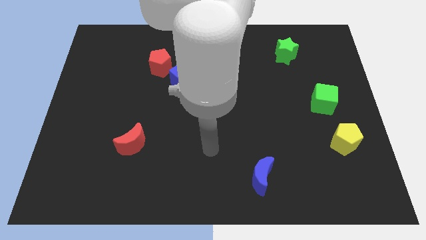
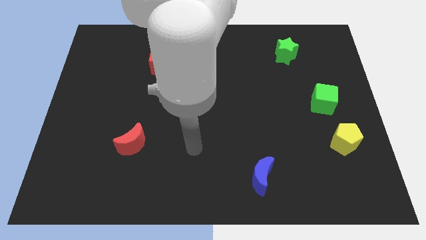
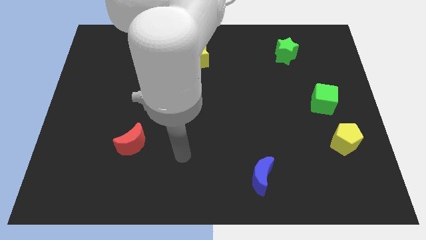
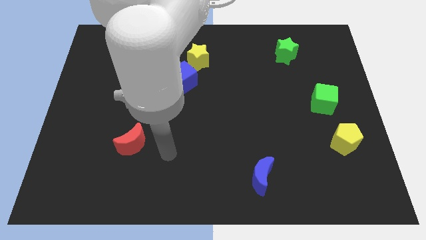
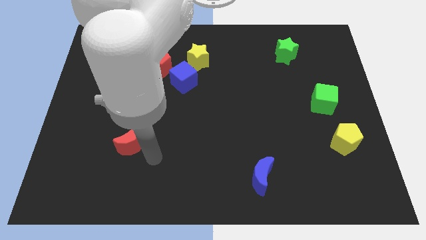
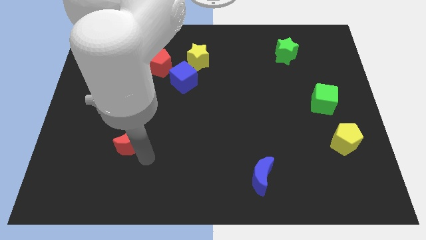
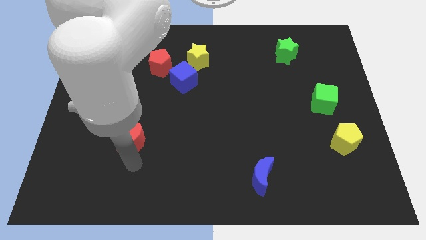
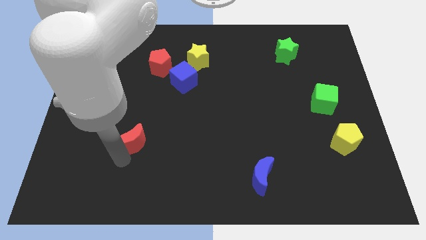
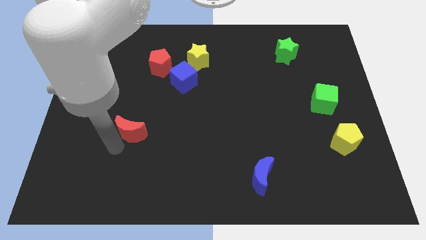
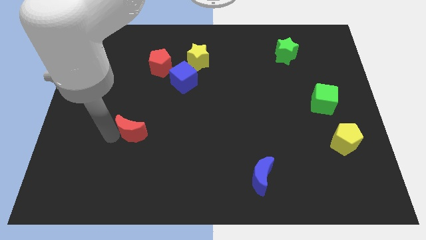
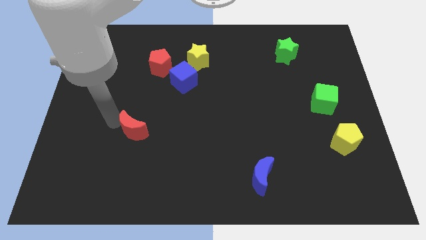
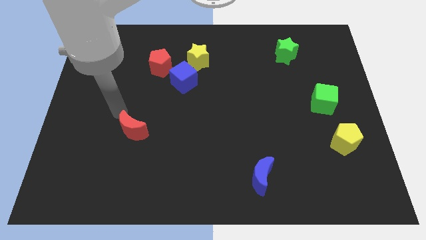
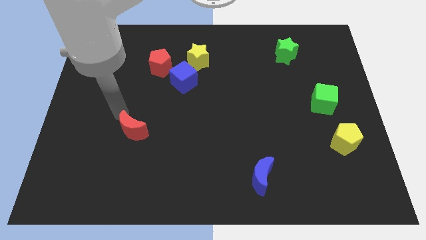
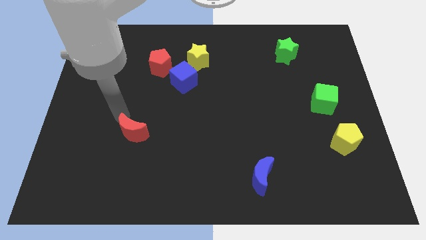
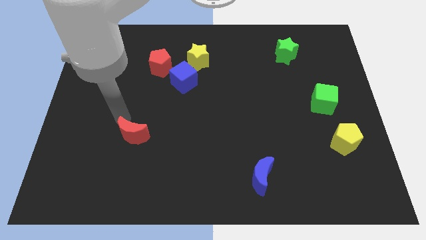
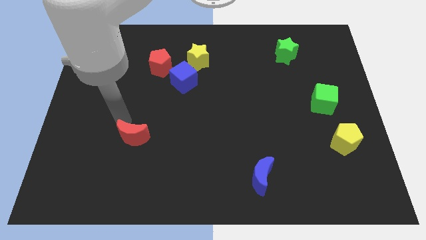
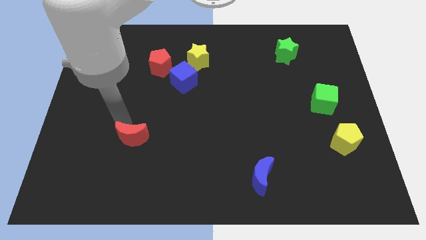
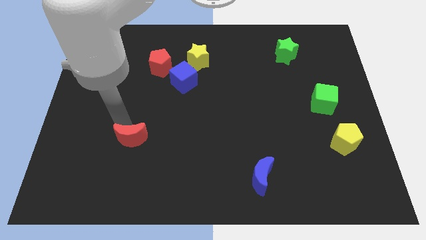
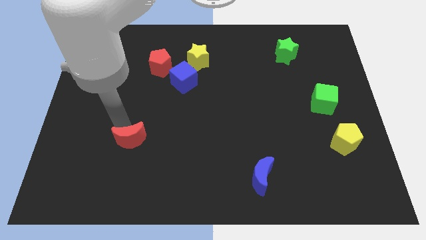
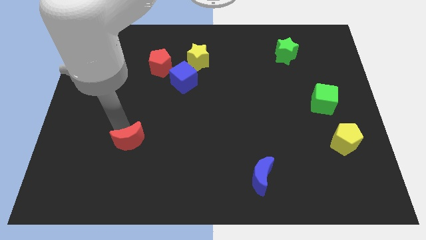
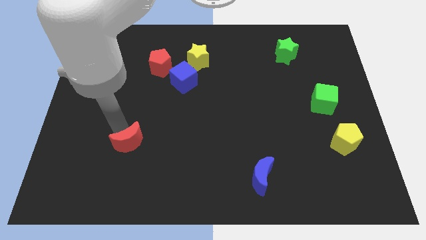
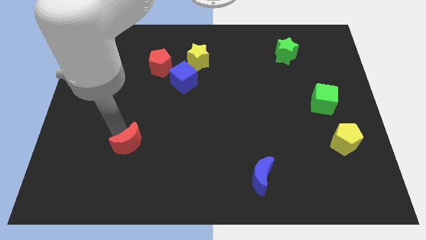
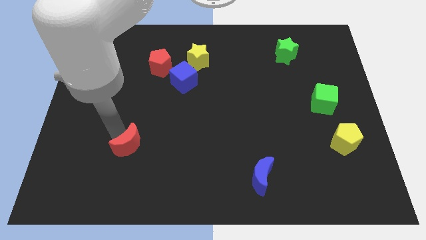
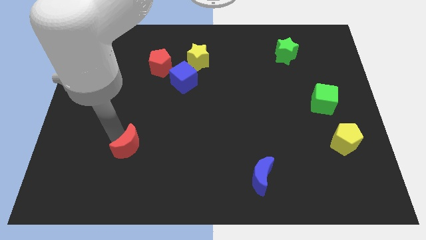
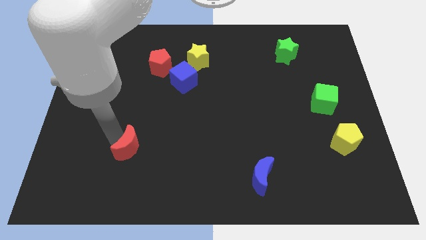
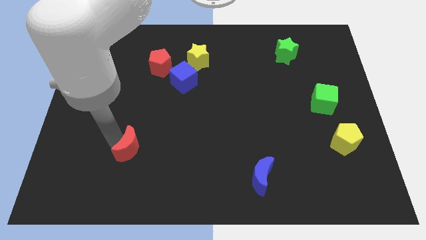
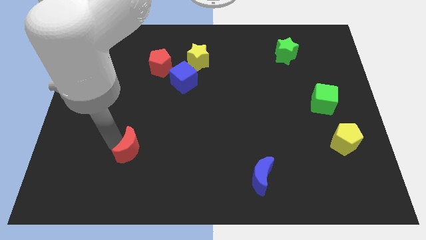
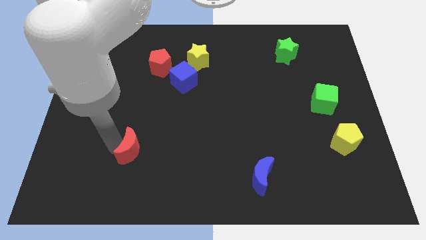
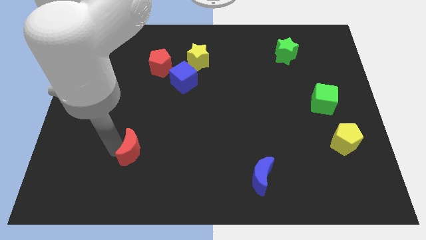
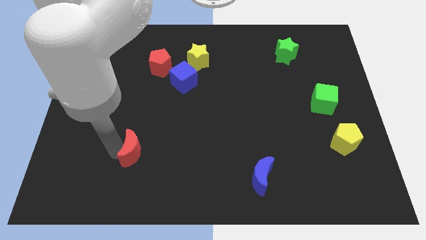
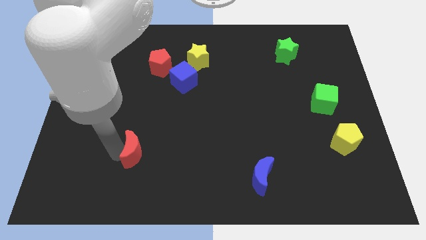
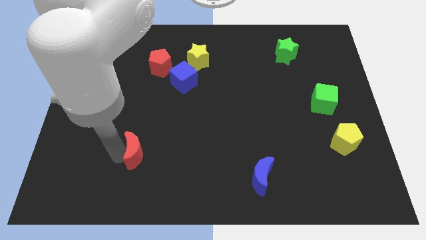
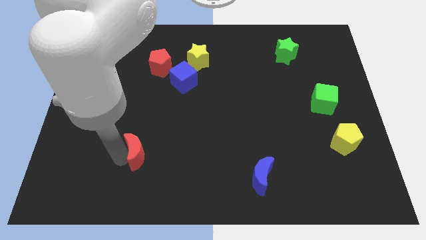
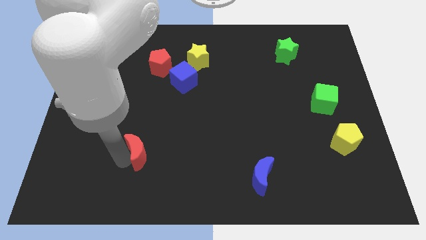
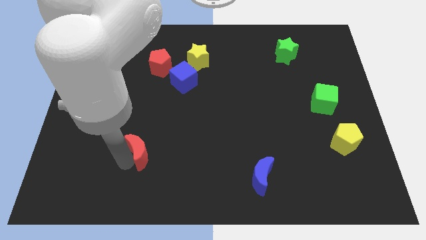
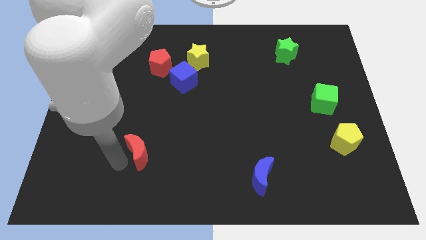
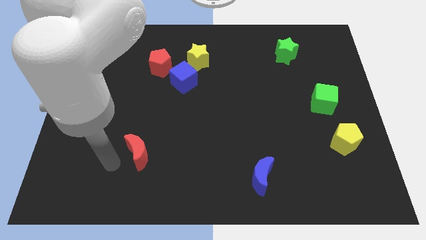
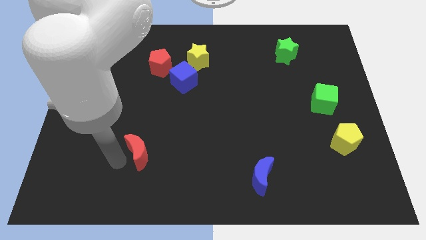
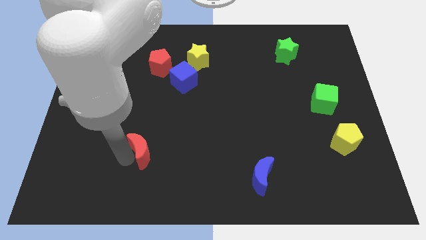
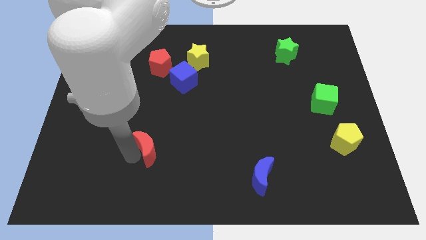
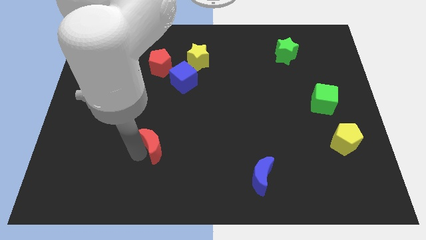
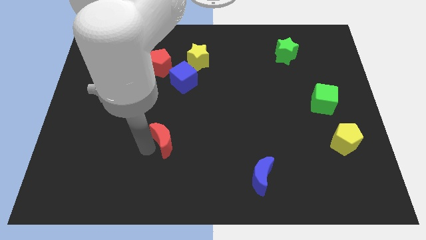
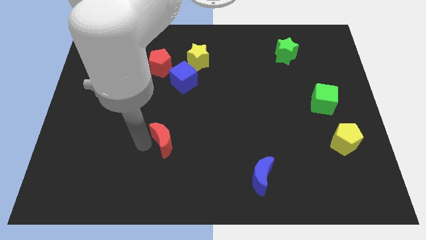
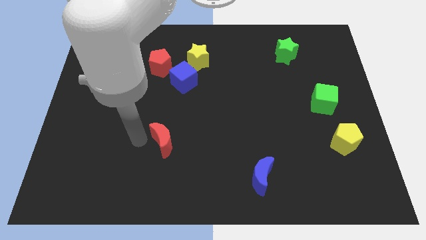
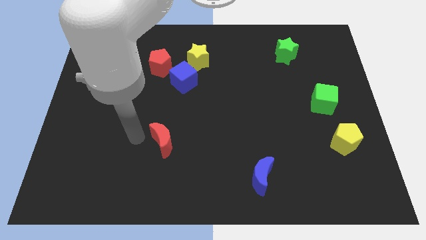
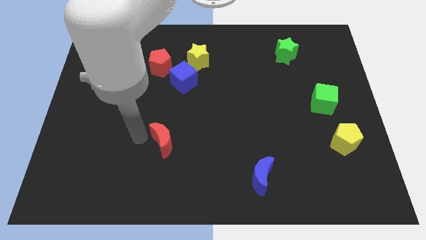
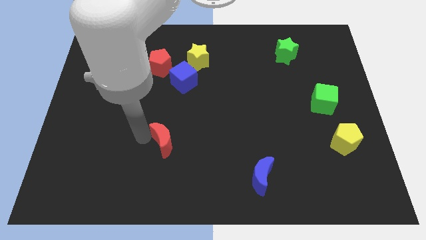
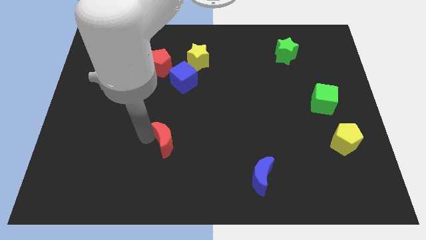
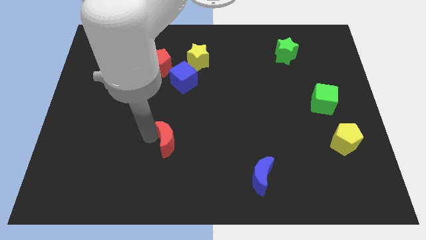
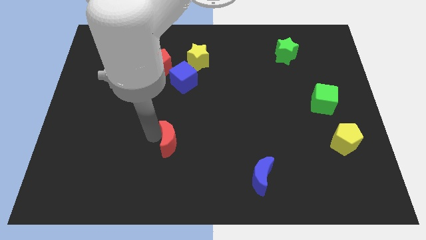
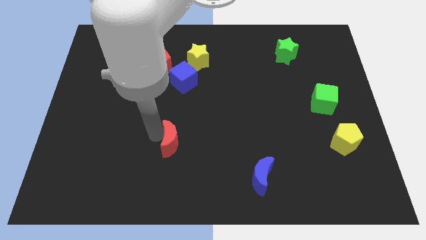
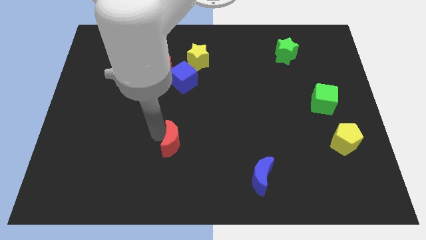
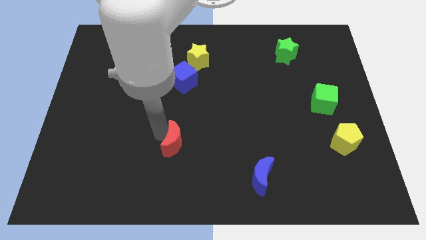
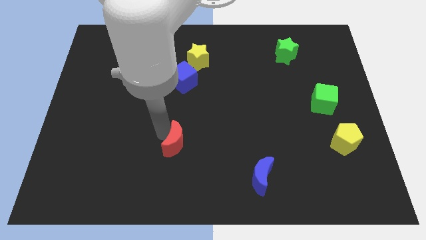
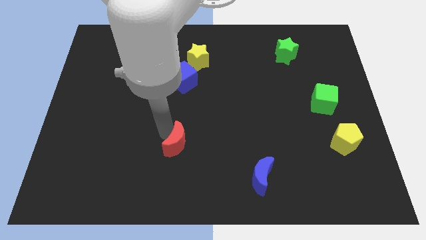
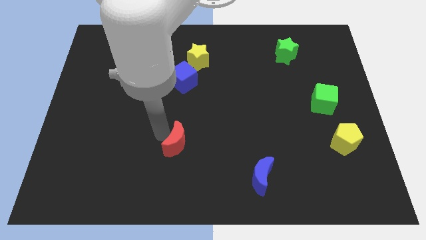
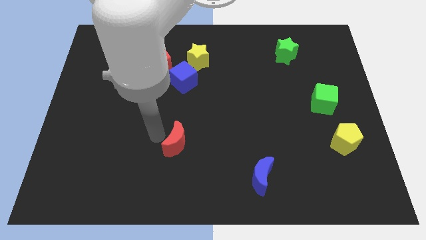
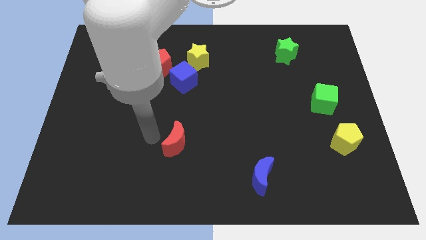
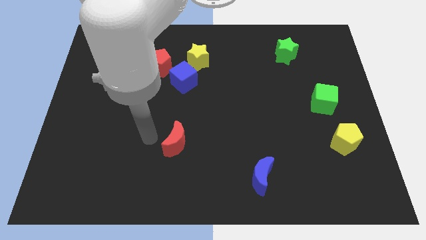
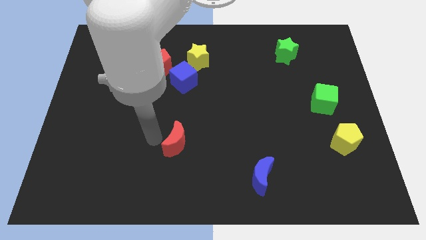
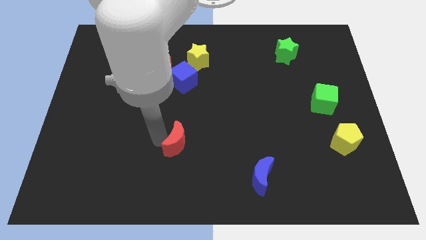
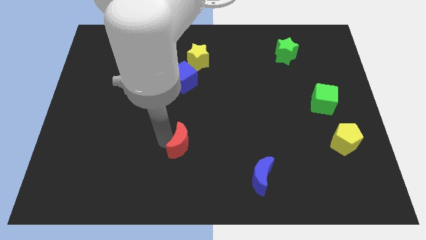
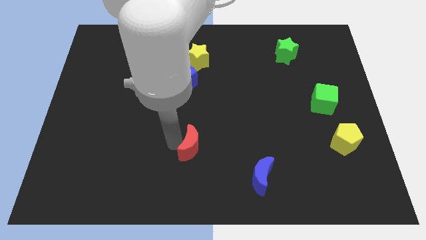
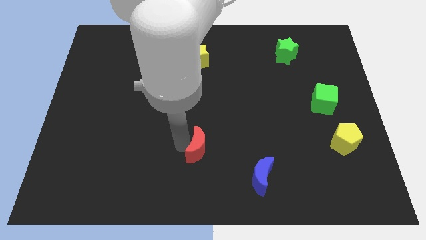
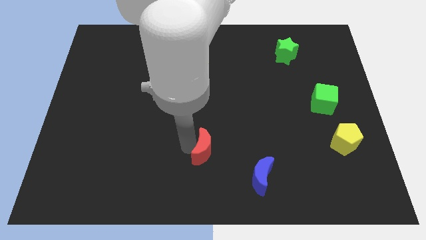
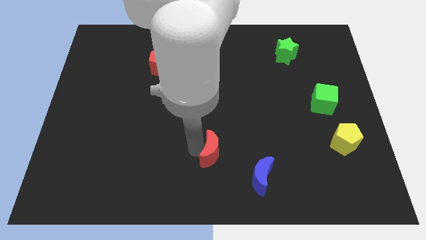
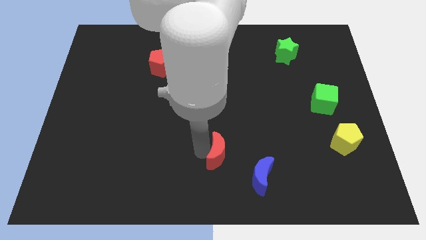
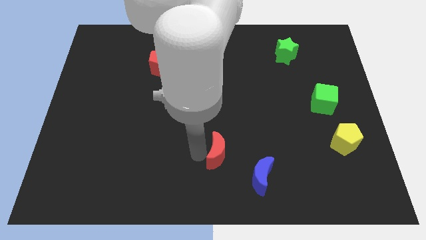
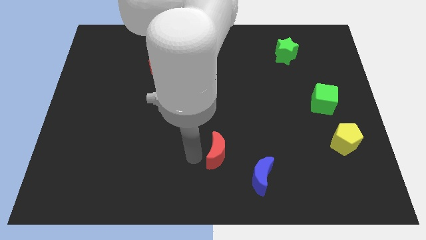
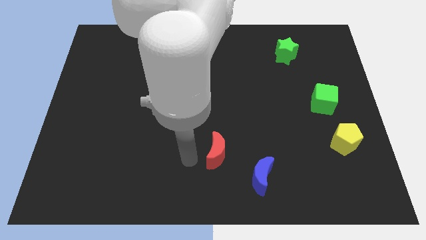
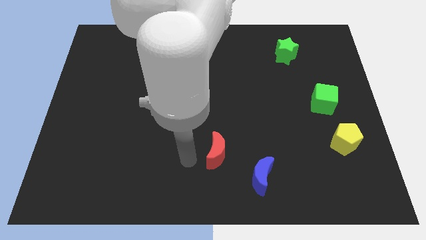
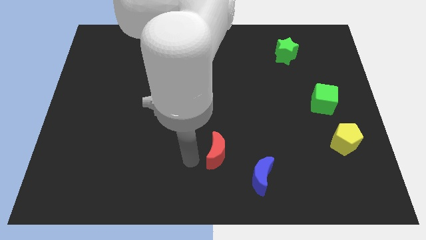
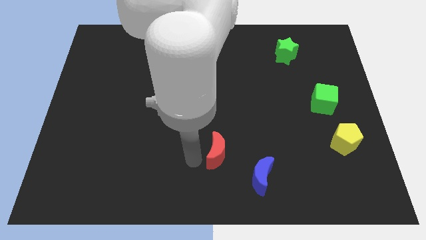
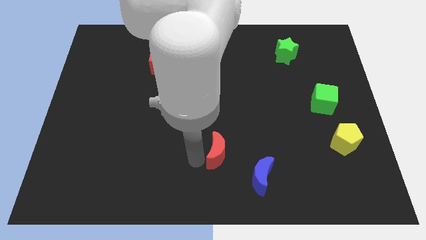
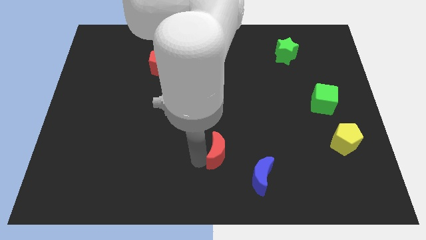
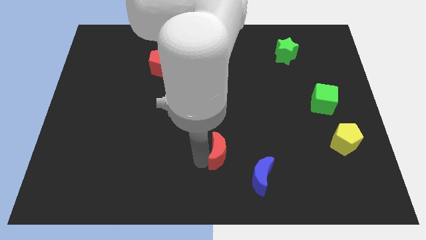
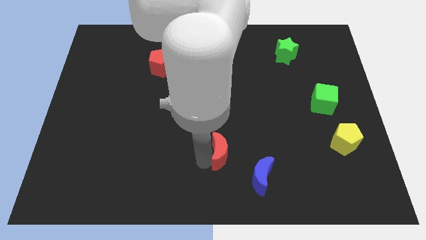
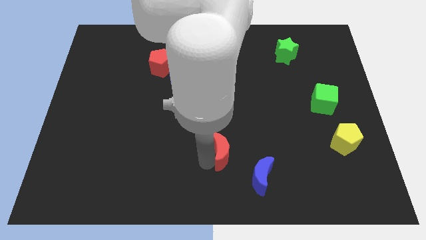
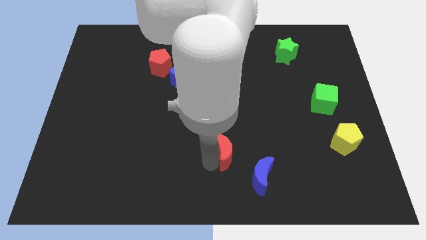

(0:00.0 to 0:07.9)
move the red moon right
